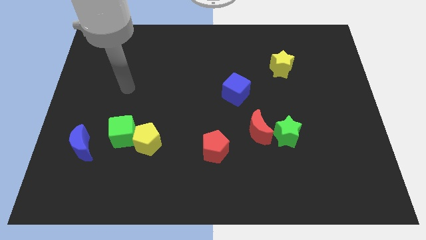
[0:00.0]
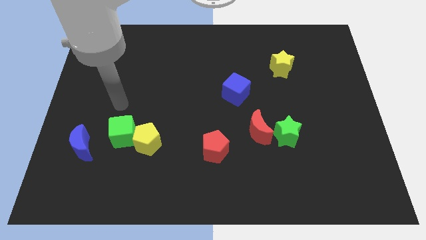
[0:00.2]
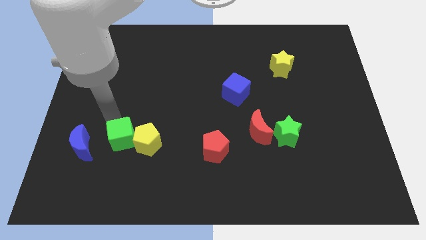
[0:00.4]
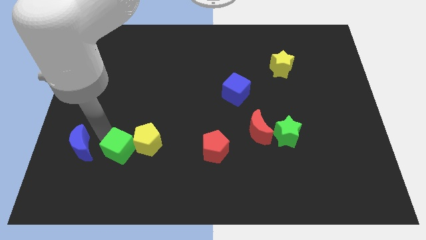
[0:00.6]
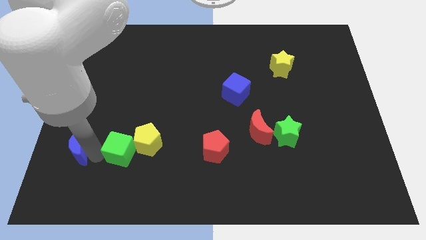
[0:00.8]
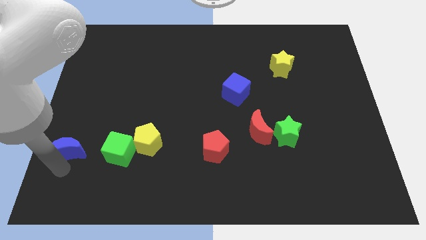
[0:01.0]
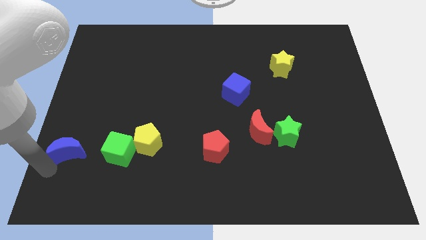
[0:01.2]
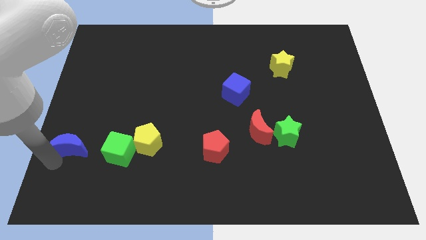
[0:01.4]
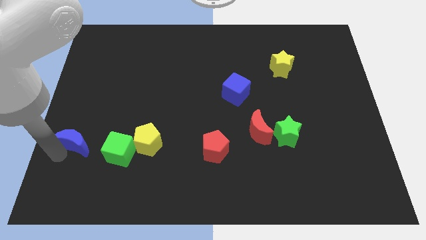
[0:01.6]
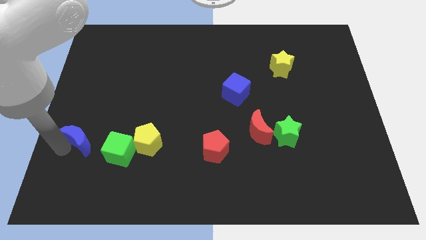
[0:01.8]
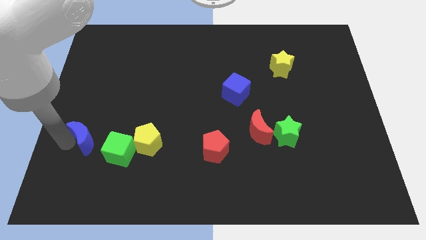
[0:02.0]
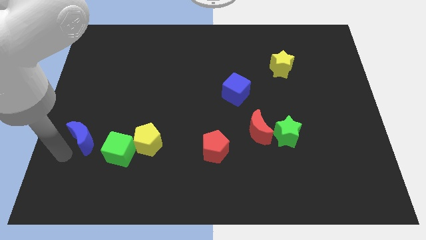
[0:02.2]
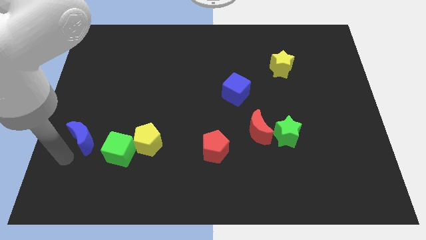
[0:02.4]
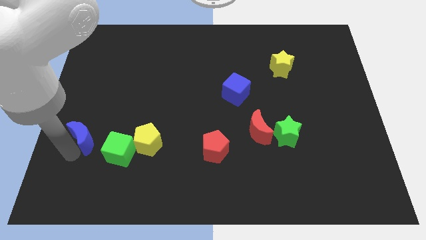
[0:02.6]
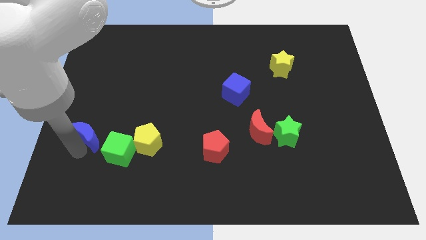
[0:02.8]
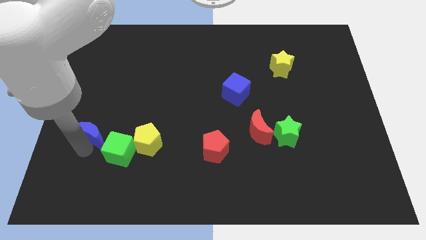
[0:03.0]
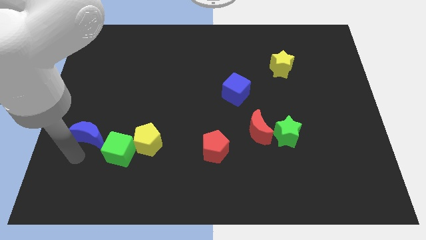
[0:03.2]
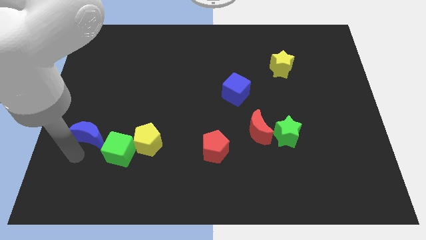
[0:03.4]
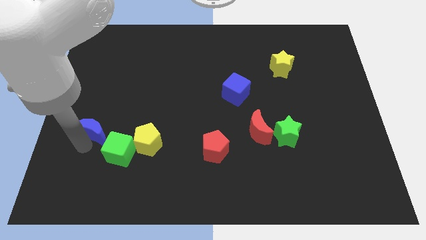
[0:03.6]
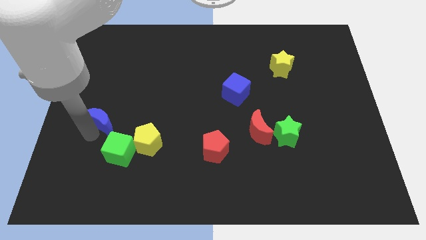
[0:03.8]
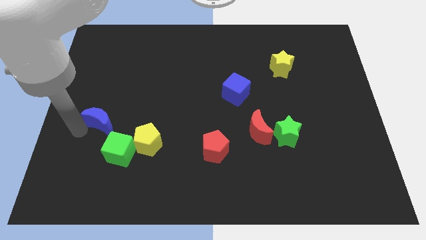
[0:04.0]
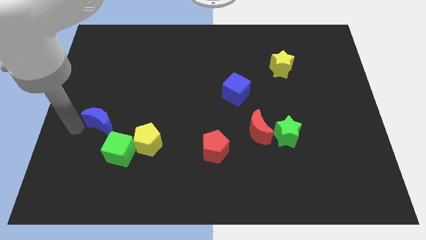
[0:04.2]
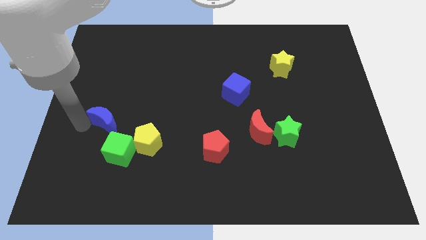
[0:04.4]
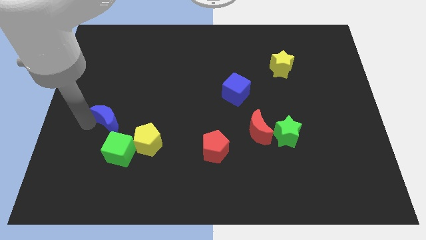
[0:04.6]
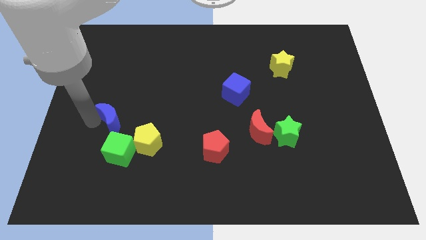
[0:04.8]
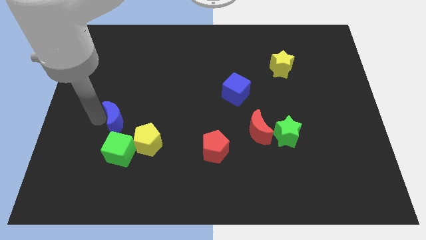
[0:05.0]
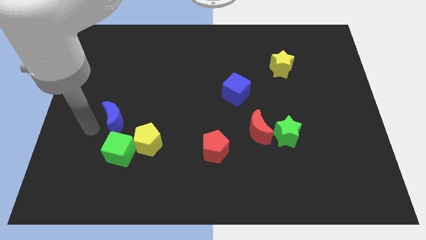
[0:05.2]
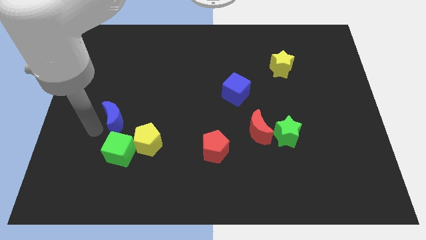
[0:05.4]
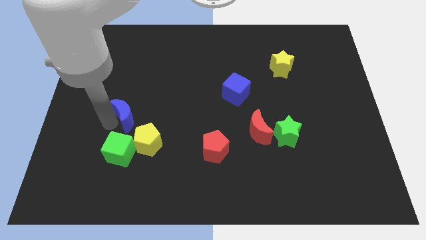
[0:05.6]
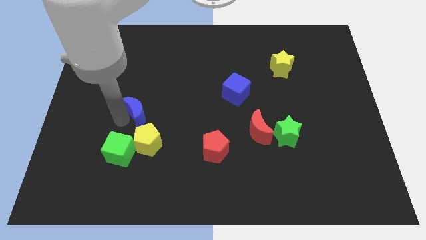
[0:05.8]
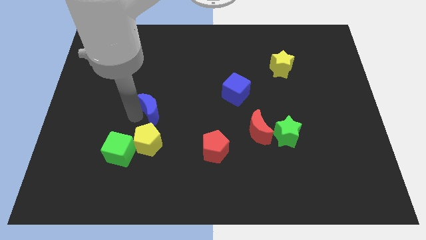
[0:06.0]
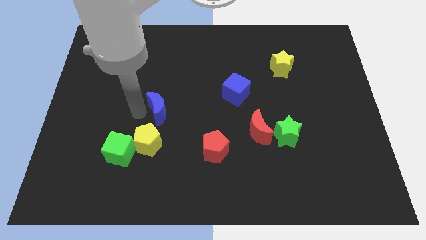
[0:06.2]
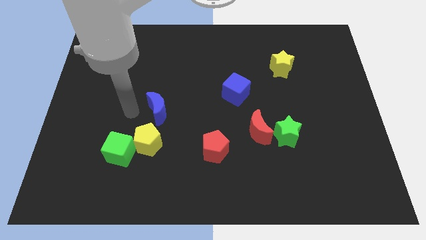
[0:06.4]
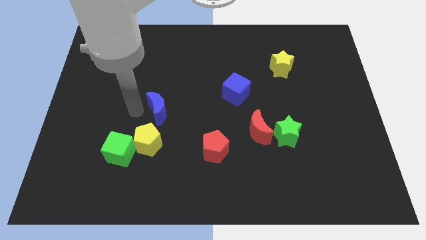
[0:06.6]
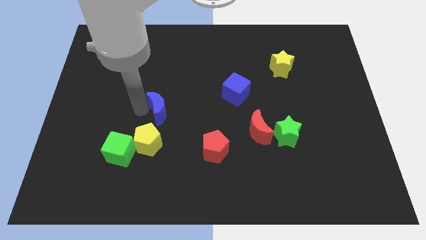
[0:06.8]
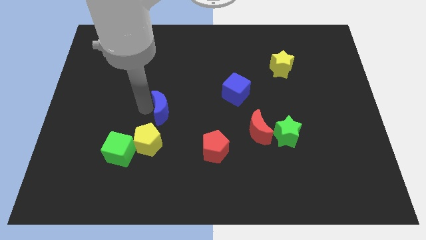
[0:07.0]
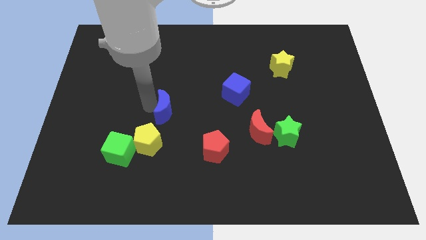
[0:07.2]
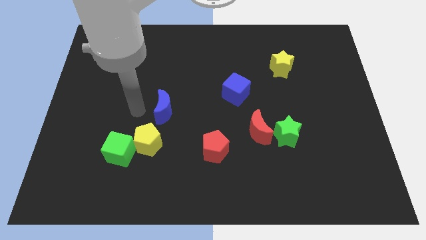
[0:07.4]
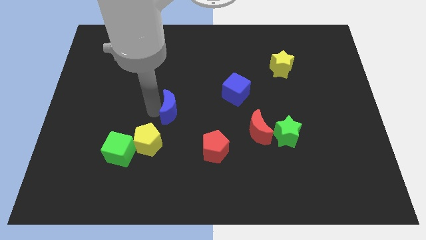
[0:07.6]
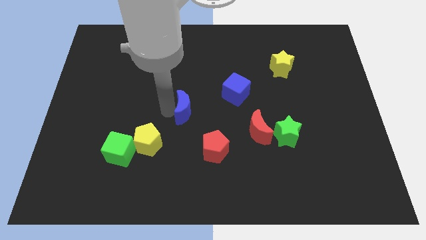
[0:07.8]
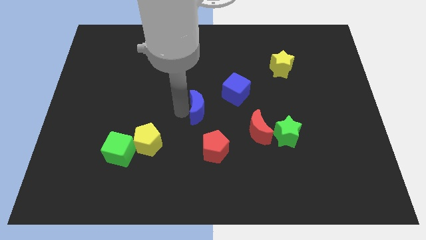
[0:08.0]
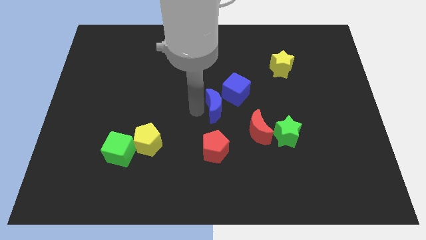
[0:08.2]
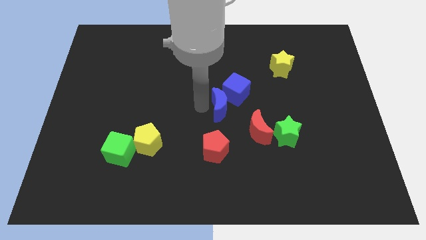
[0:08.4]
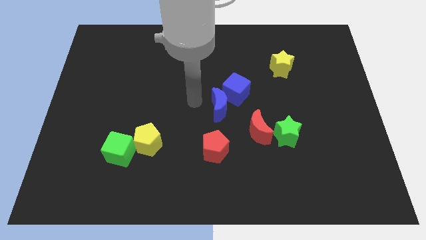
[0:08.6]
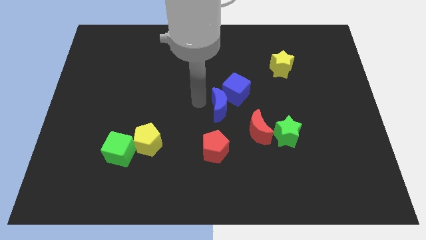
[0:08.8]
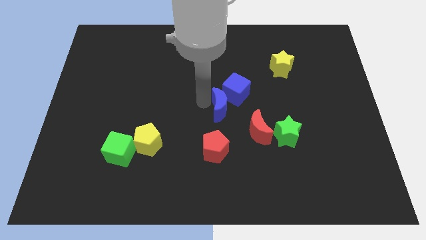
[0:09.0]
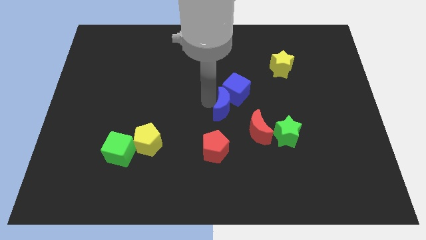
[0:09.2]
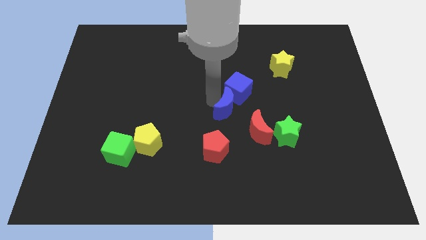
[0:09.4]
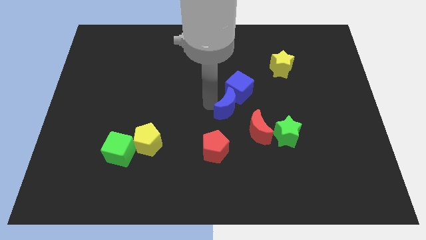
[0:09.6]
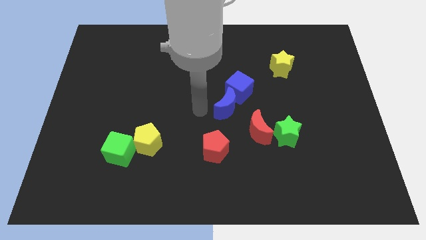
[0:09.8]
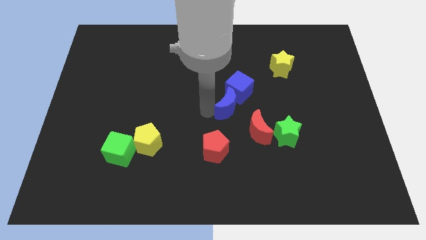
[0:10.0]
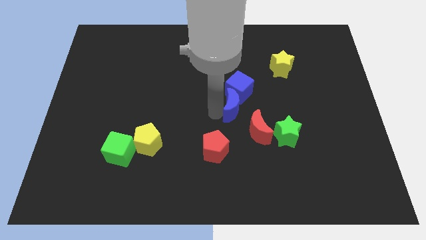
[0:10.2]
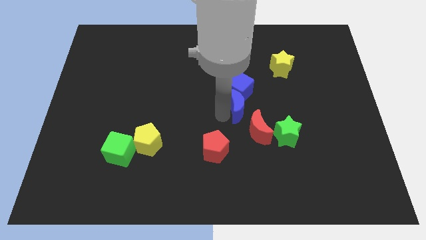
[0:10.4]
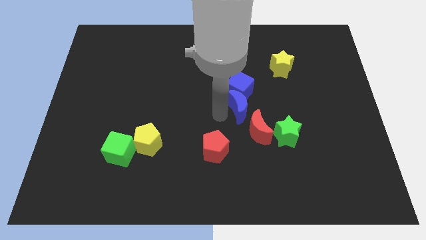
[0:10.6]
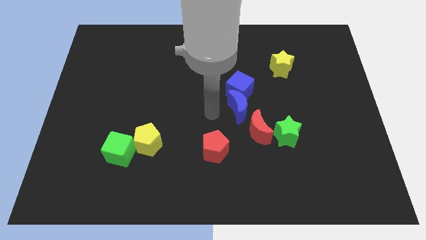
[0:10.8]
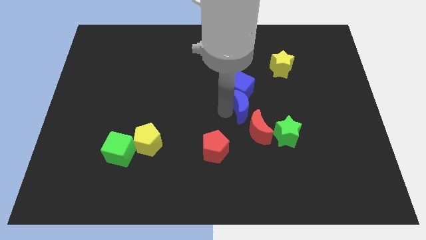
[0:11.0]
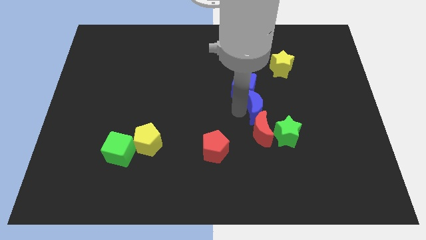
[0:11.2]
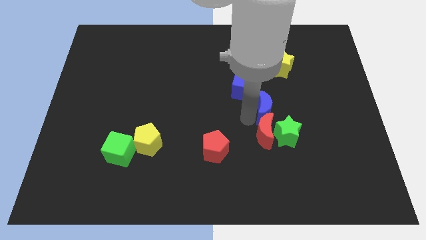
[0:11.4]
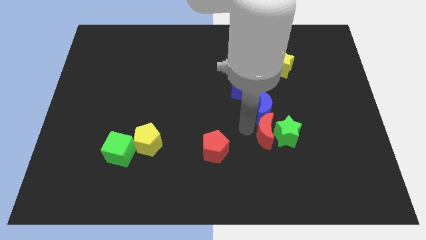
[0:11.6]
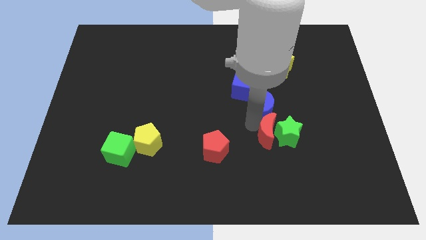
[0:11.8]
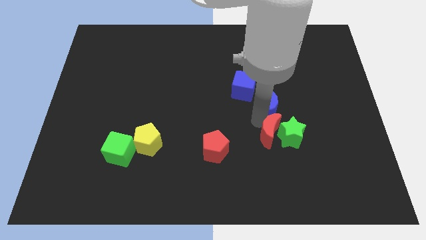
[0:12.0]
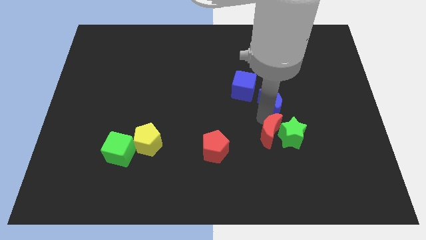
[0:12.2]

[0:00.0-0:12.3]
slide the blue moon just right of the blue cube
